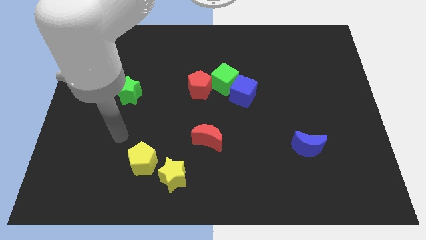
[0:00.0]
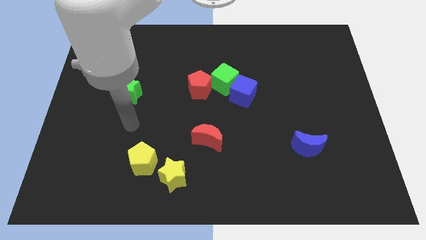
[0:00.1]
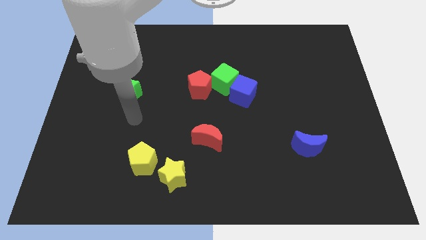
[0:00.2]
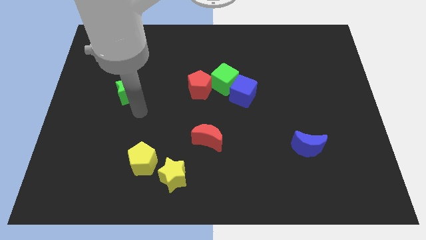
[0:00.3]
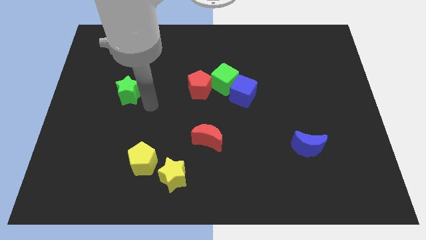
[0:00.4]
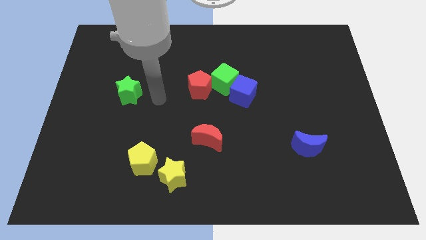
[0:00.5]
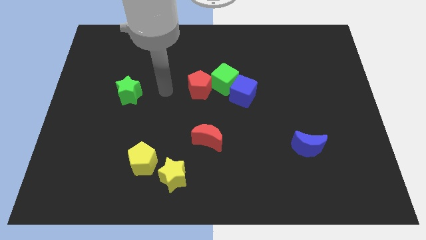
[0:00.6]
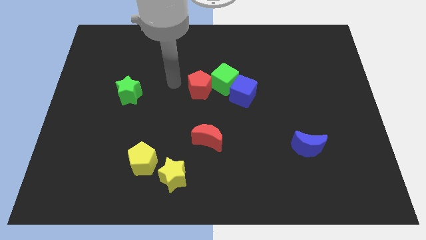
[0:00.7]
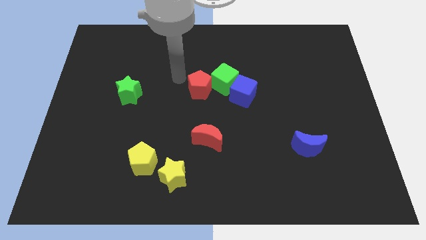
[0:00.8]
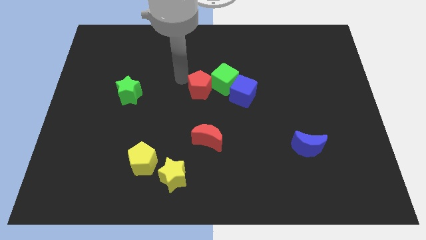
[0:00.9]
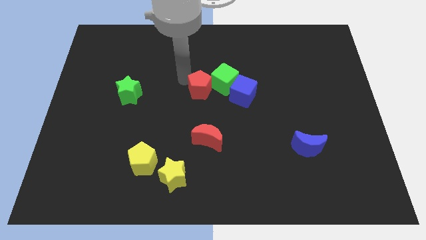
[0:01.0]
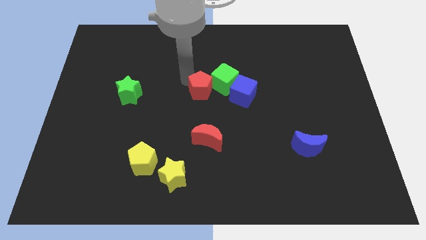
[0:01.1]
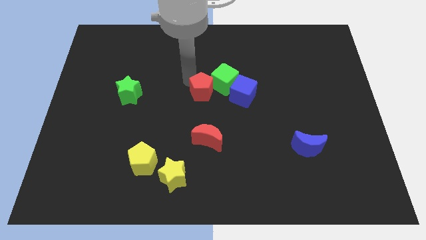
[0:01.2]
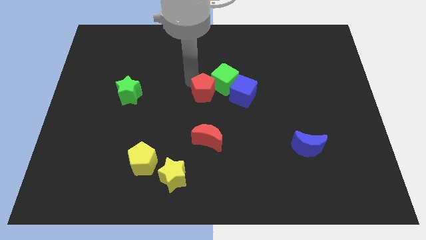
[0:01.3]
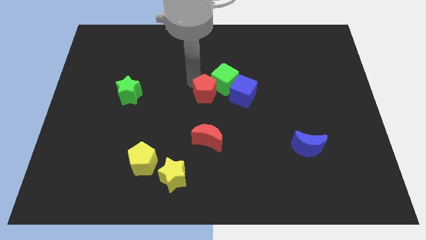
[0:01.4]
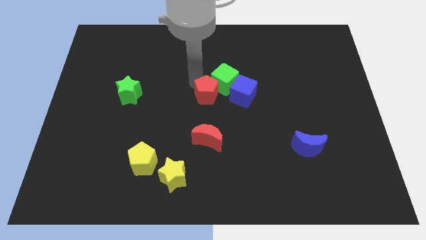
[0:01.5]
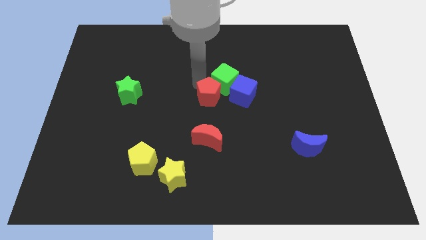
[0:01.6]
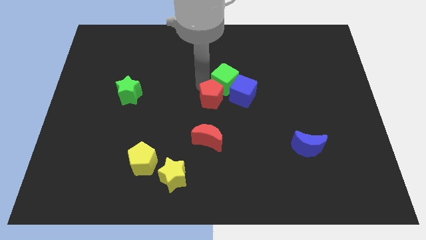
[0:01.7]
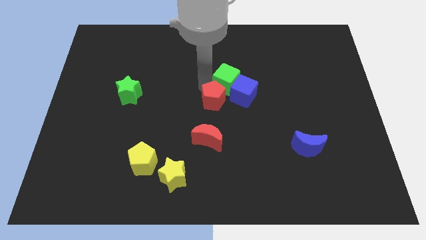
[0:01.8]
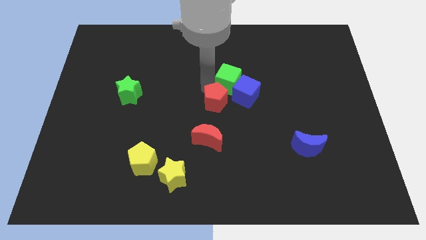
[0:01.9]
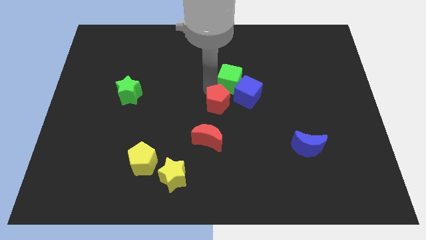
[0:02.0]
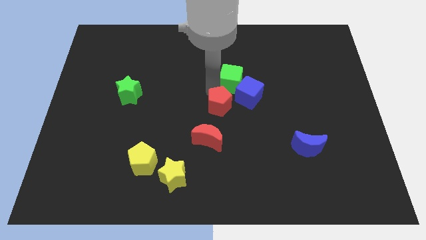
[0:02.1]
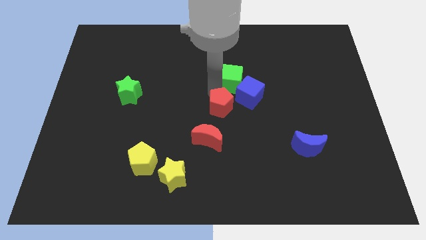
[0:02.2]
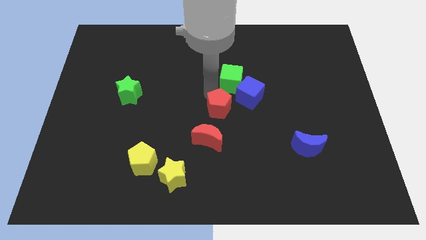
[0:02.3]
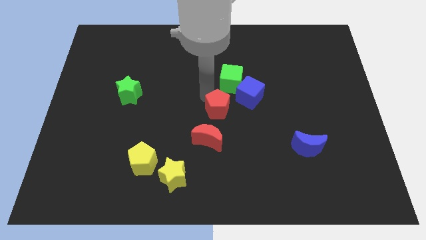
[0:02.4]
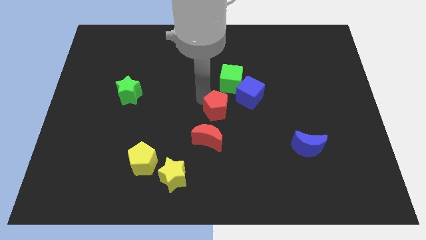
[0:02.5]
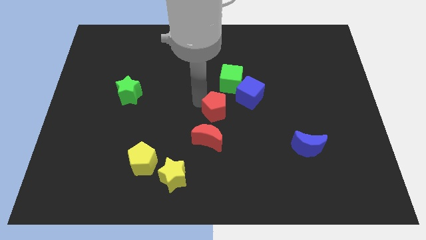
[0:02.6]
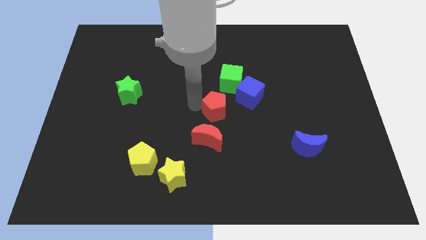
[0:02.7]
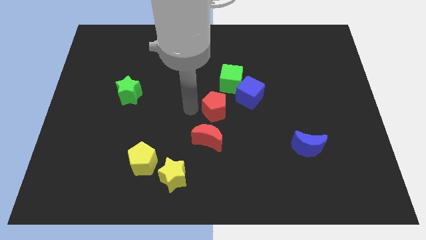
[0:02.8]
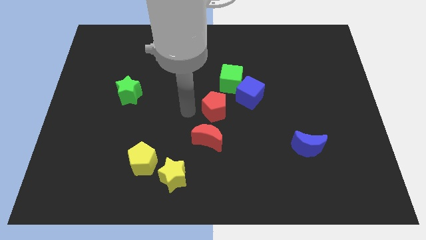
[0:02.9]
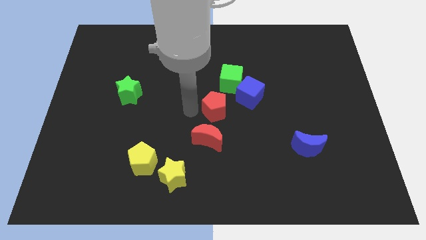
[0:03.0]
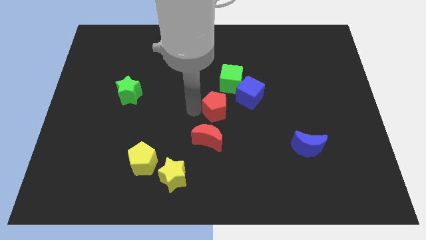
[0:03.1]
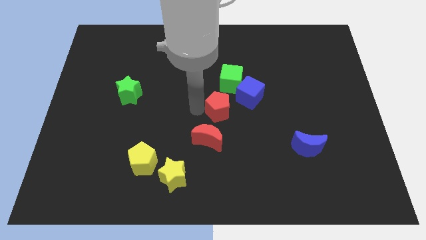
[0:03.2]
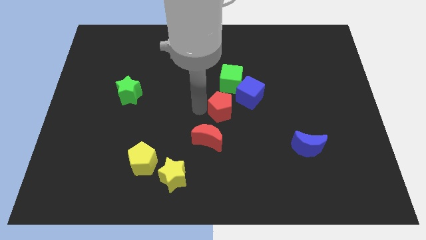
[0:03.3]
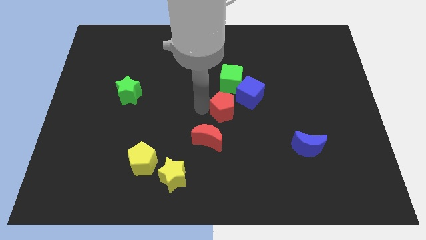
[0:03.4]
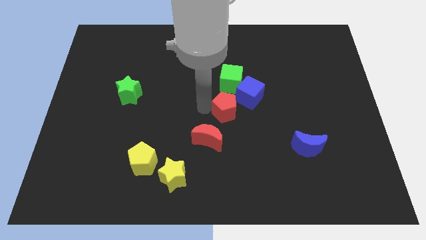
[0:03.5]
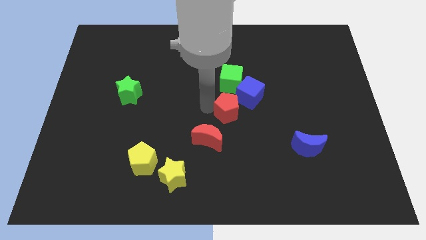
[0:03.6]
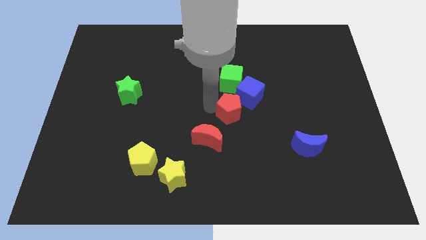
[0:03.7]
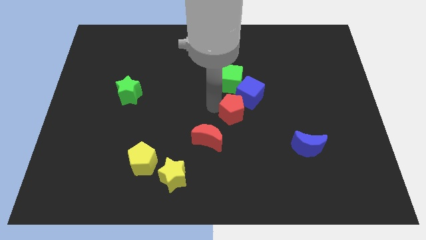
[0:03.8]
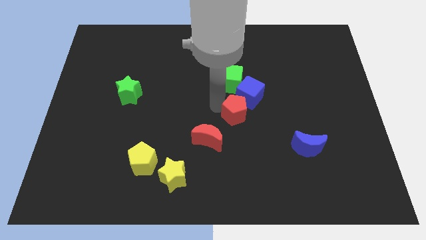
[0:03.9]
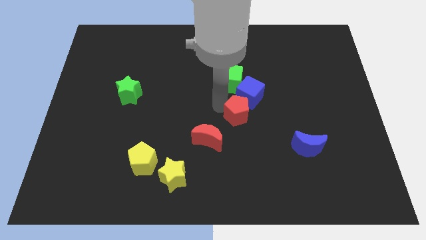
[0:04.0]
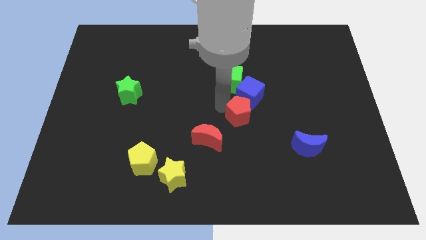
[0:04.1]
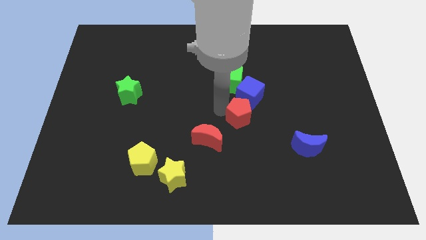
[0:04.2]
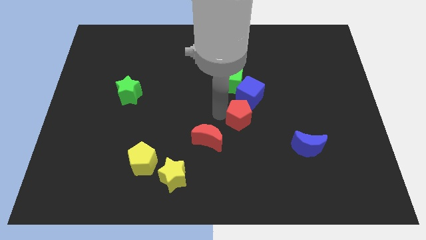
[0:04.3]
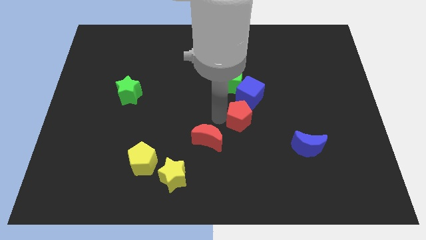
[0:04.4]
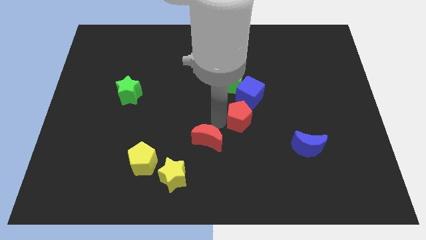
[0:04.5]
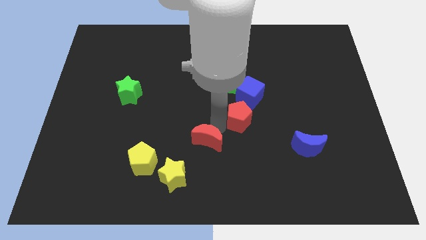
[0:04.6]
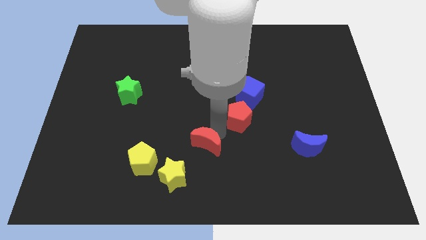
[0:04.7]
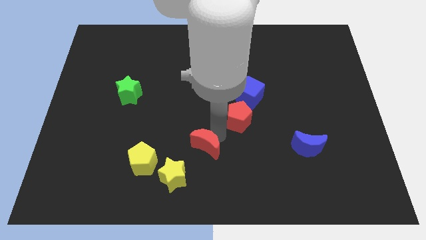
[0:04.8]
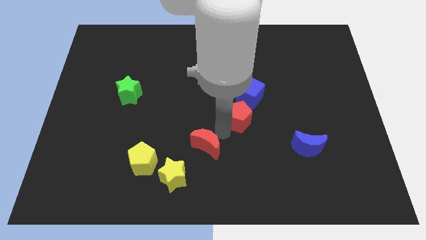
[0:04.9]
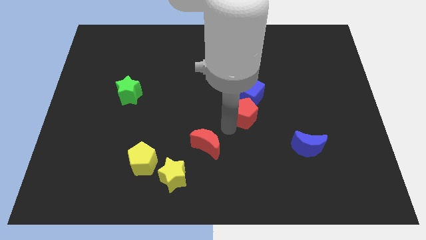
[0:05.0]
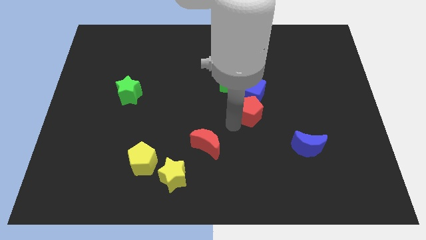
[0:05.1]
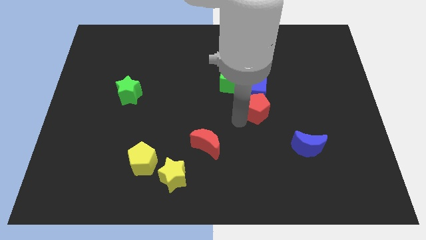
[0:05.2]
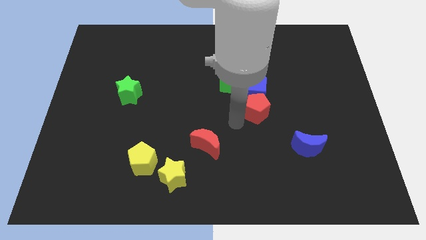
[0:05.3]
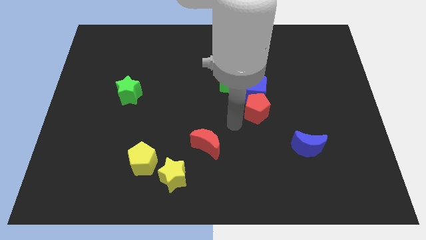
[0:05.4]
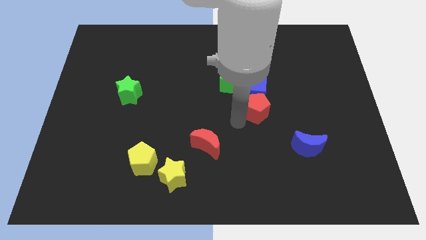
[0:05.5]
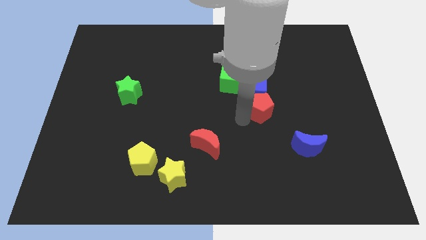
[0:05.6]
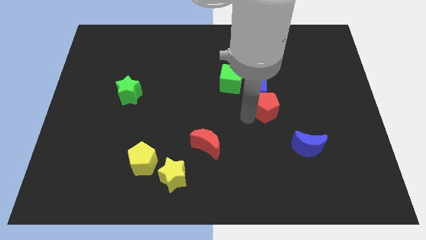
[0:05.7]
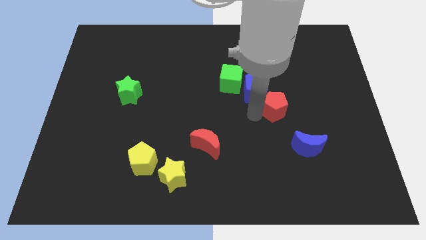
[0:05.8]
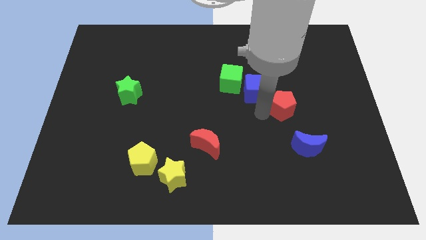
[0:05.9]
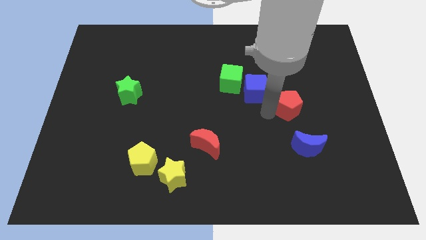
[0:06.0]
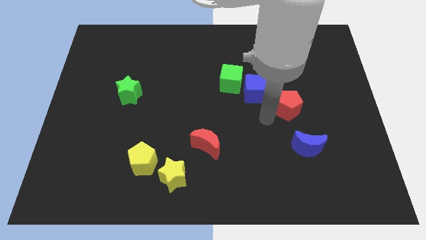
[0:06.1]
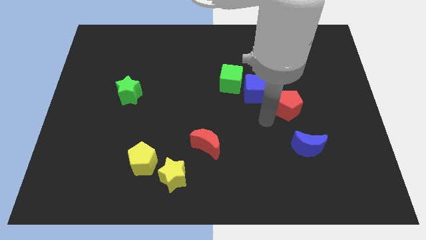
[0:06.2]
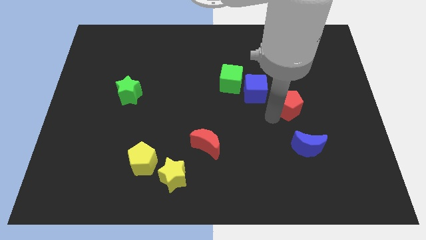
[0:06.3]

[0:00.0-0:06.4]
push the red pentagon to the right

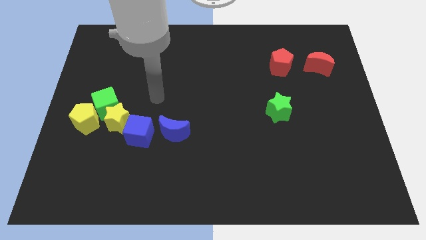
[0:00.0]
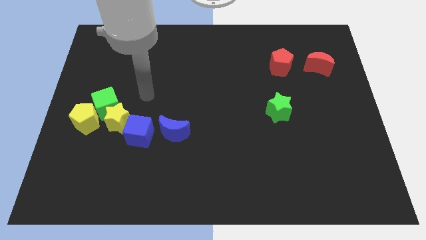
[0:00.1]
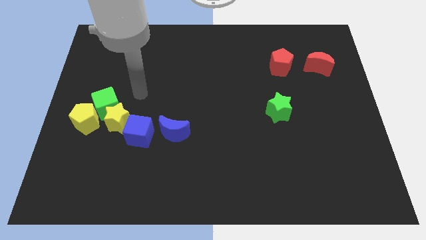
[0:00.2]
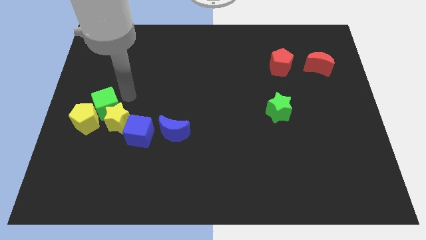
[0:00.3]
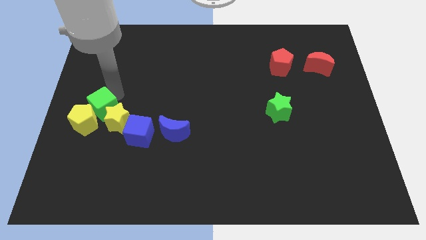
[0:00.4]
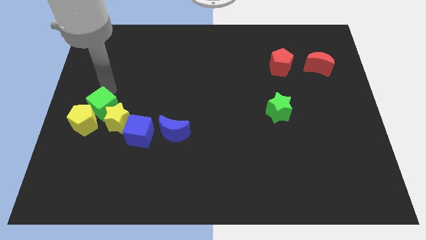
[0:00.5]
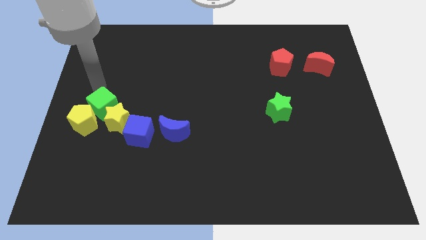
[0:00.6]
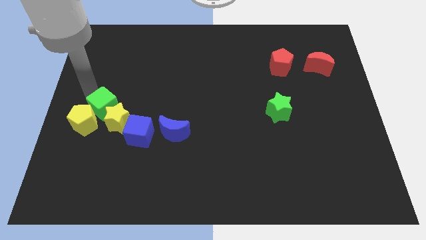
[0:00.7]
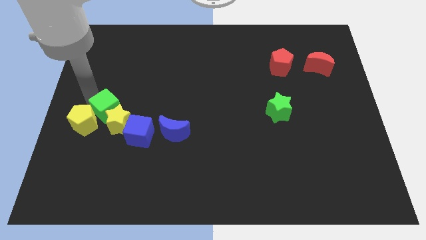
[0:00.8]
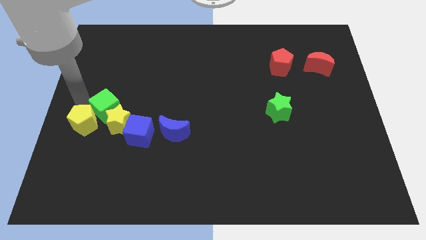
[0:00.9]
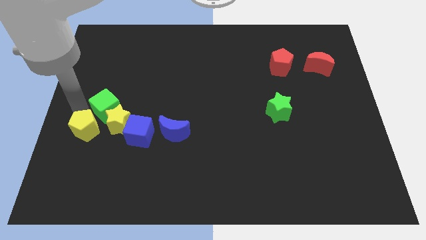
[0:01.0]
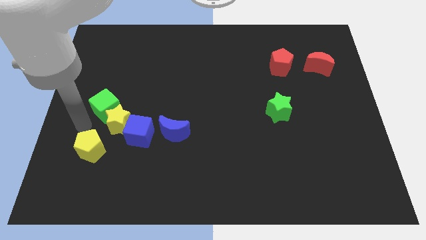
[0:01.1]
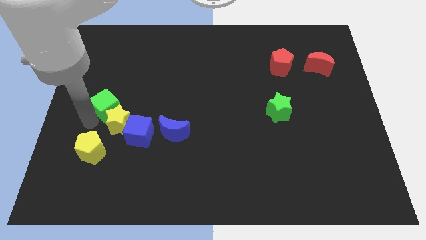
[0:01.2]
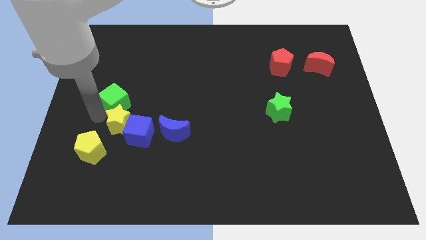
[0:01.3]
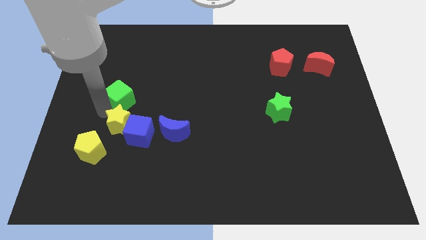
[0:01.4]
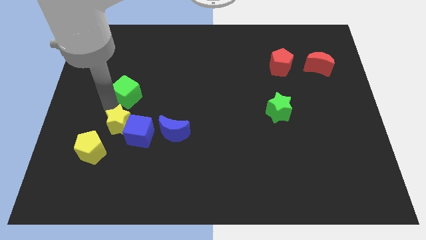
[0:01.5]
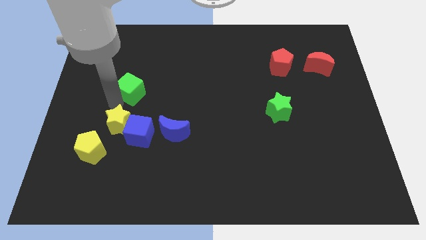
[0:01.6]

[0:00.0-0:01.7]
slightly move the green cube up and then to the right
